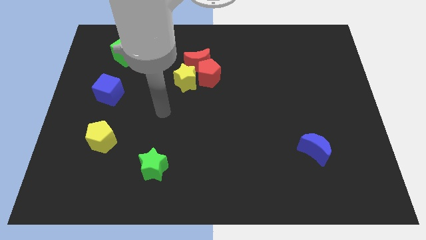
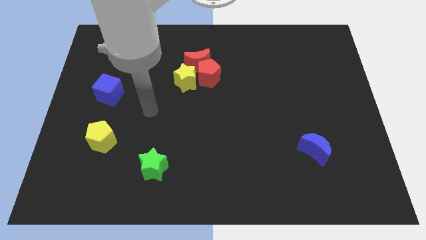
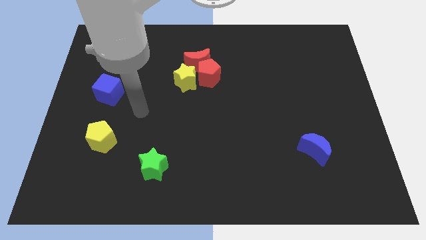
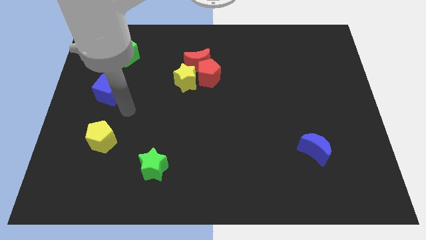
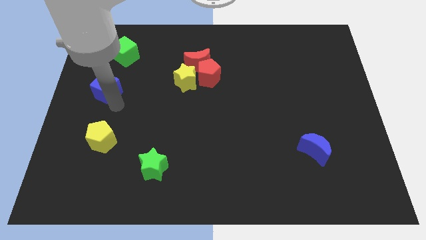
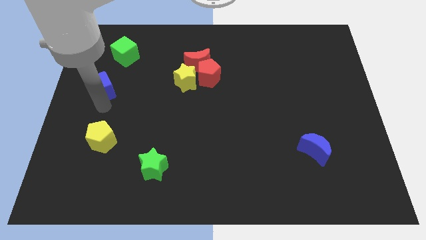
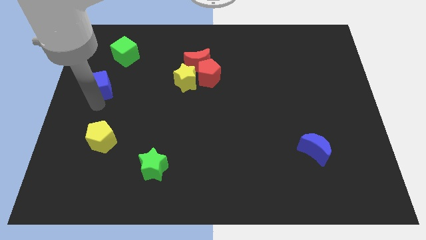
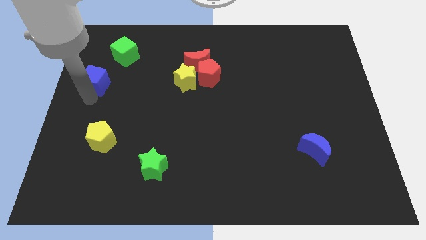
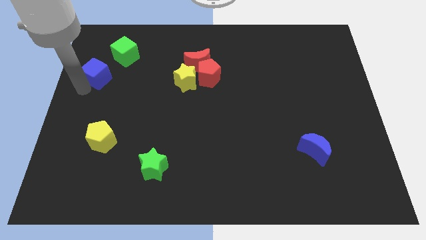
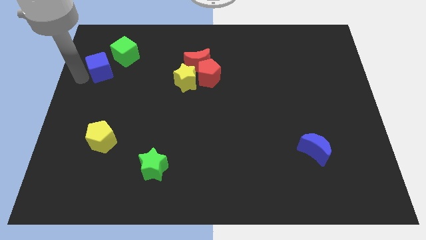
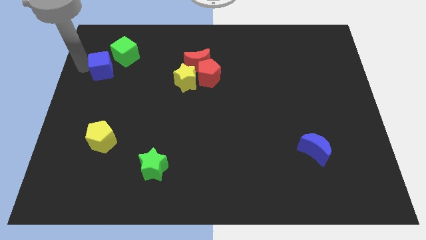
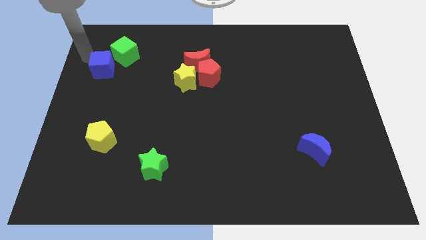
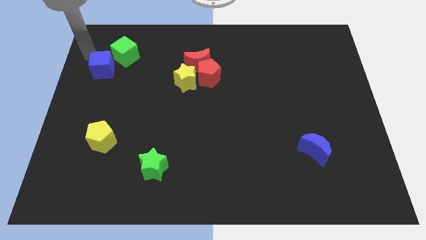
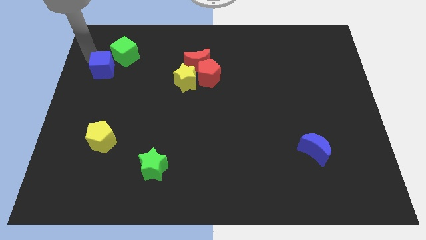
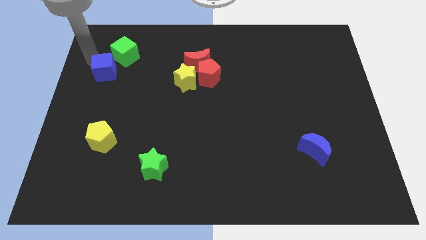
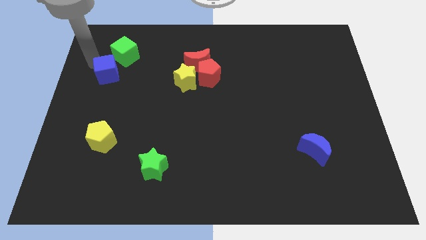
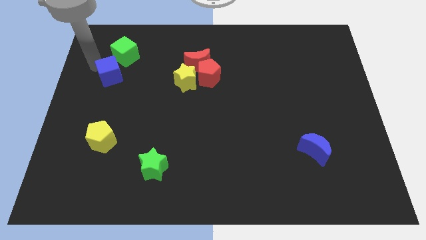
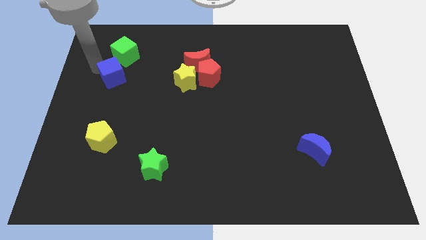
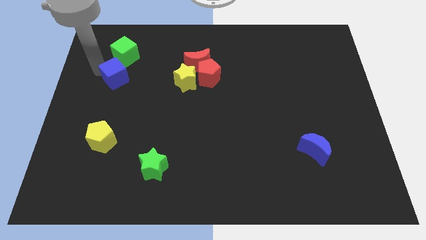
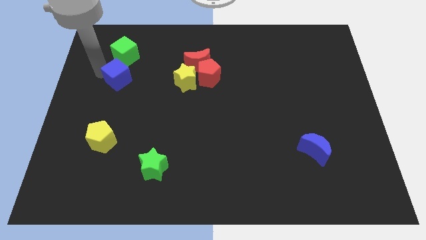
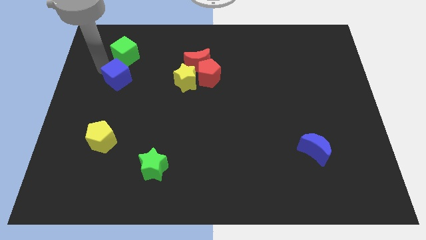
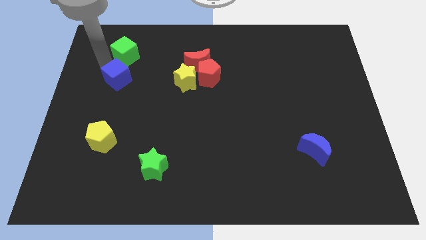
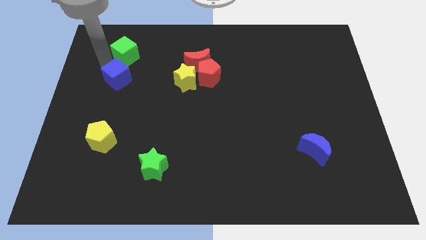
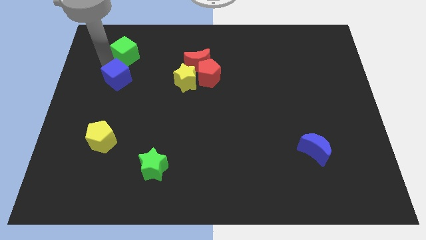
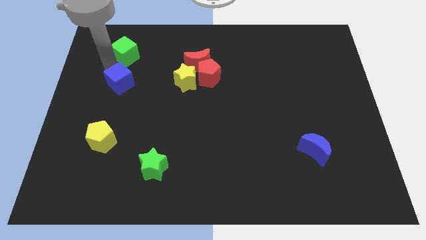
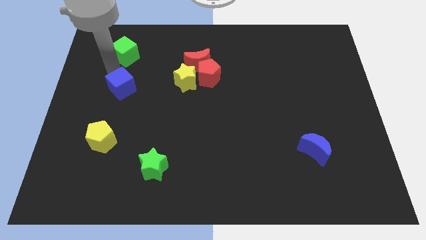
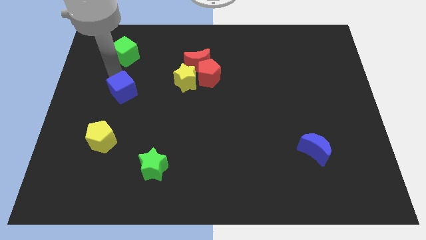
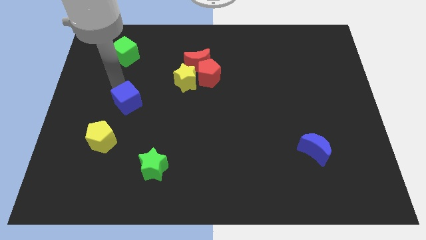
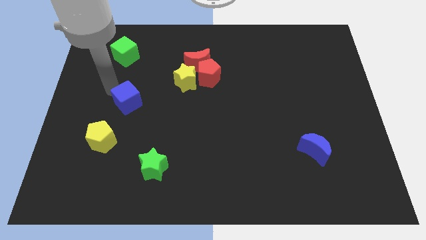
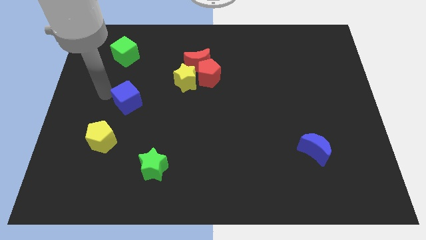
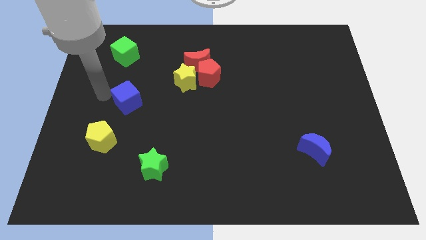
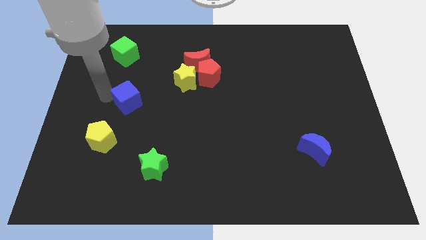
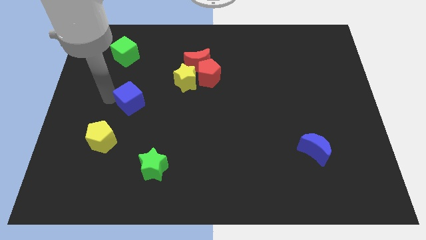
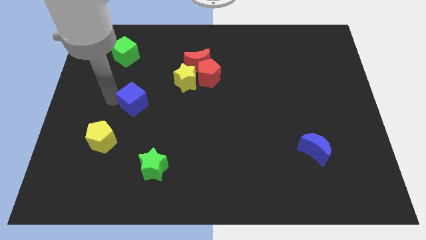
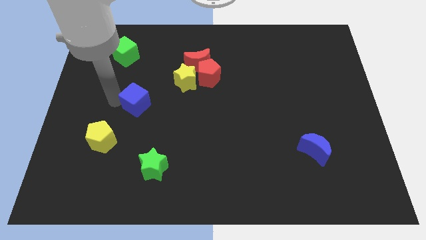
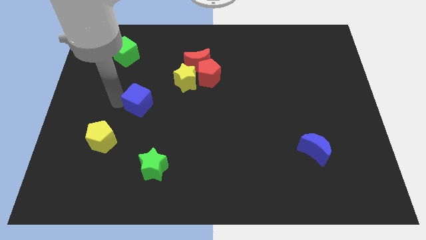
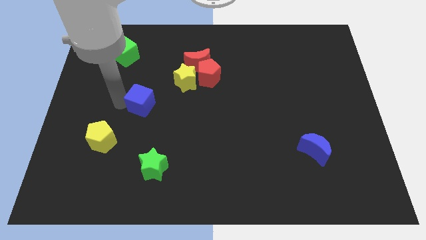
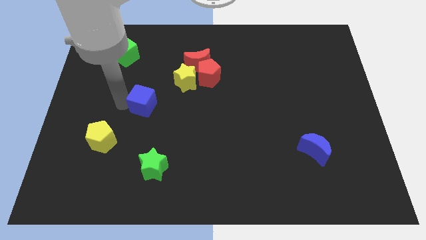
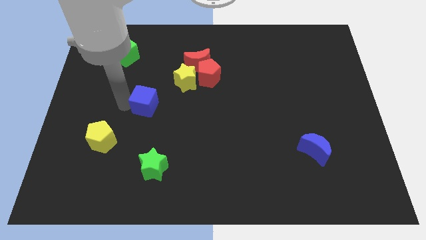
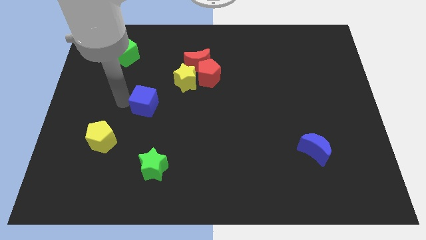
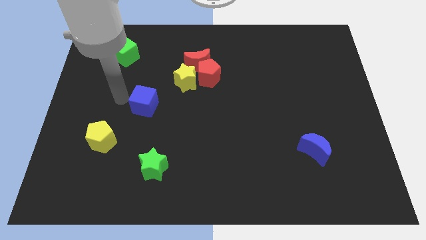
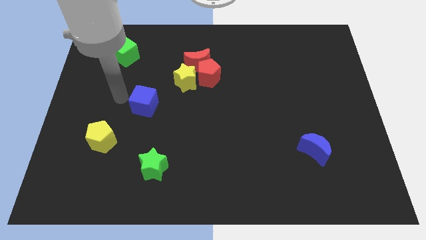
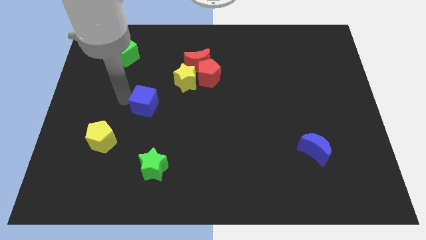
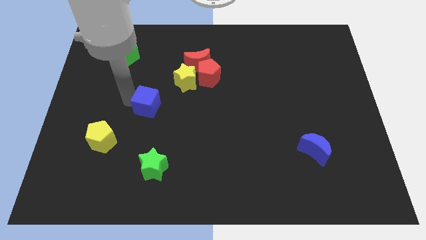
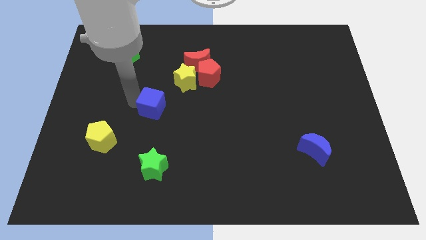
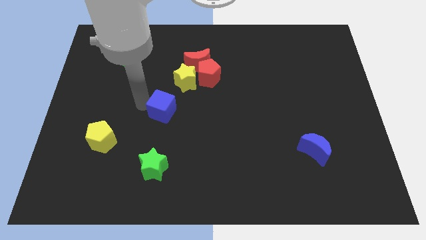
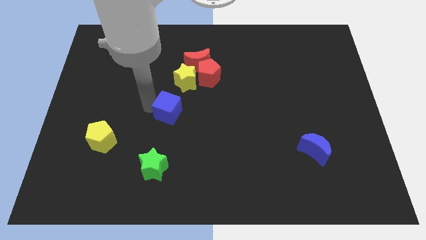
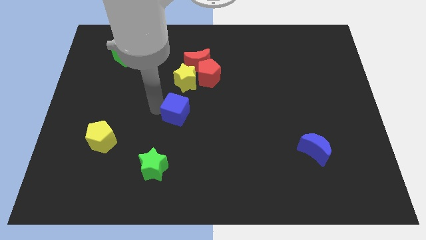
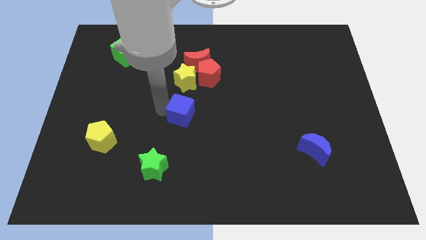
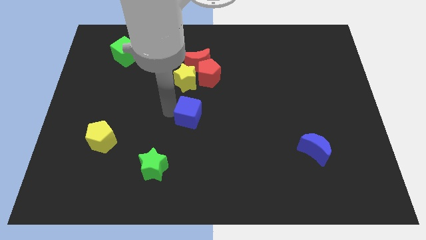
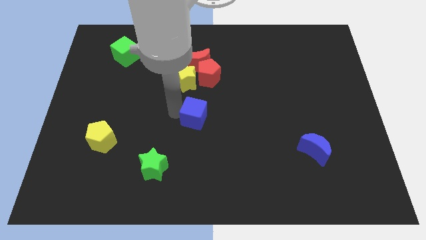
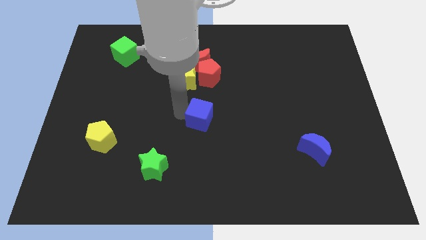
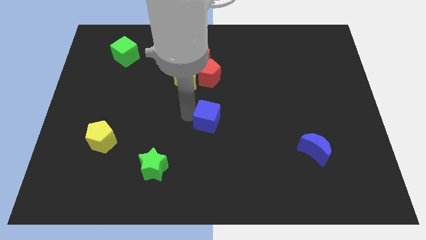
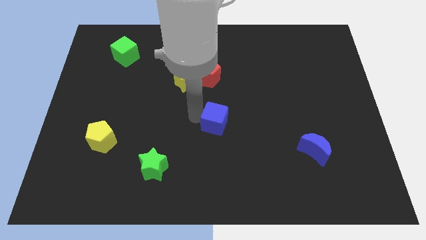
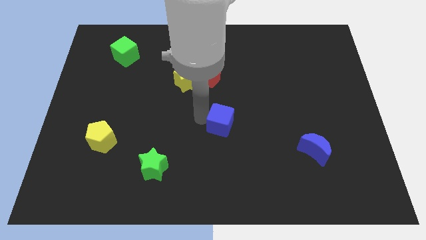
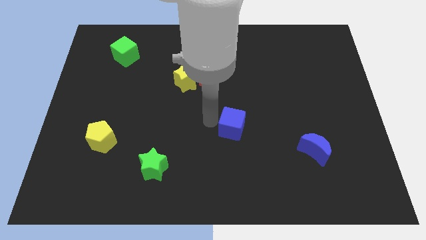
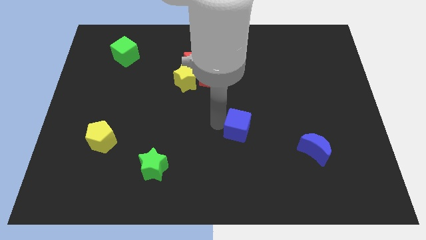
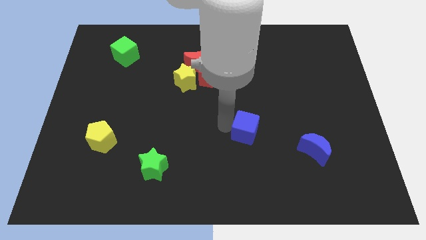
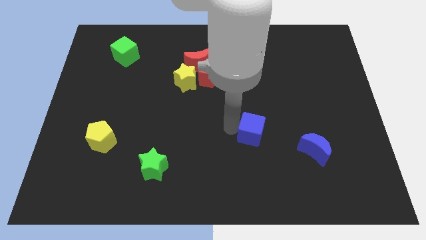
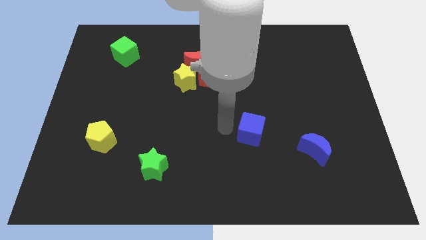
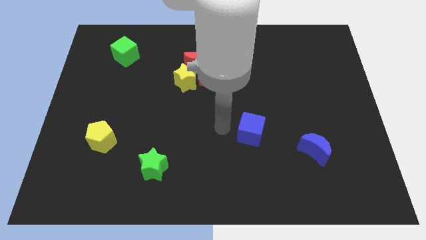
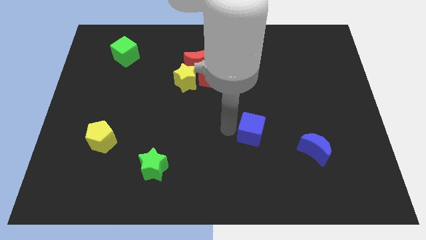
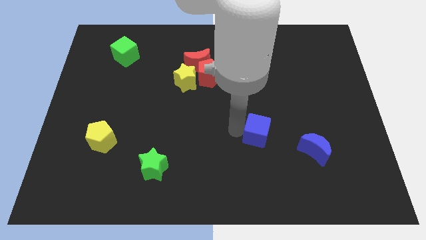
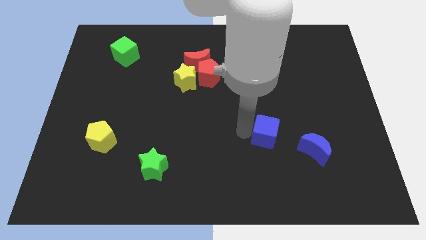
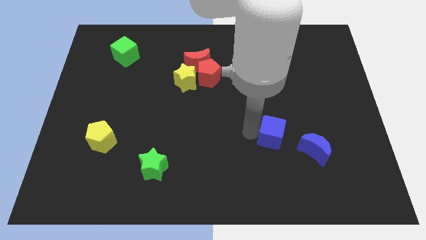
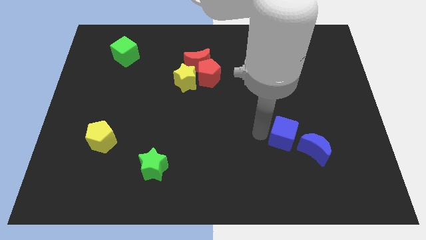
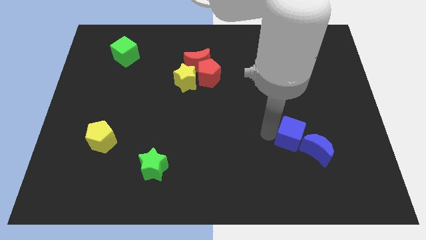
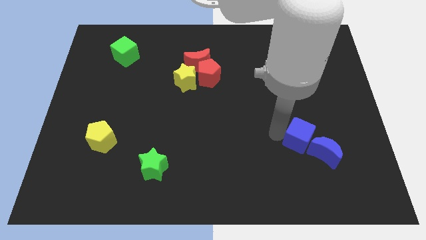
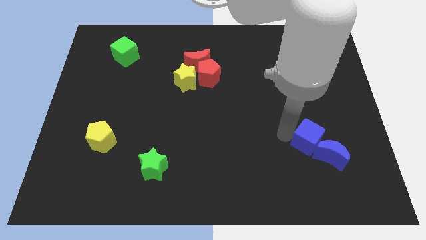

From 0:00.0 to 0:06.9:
slide the blue cube next to the blue moon

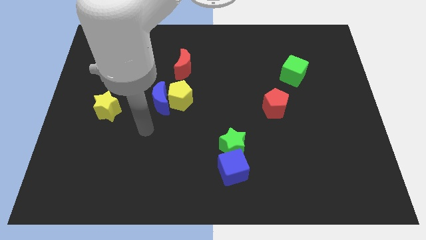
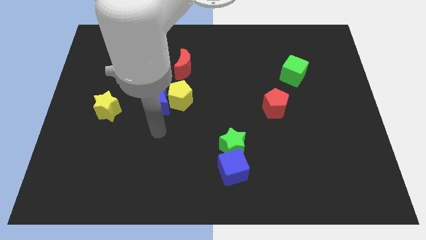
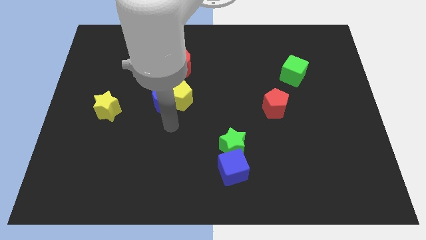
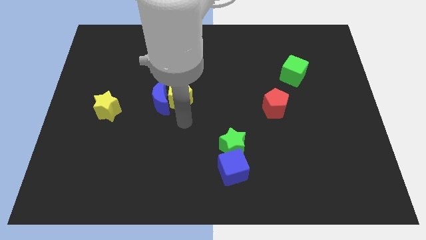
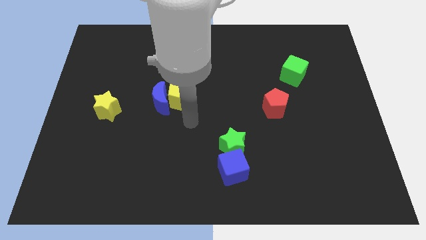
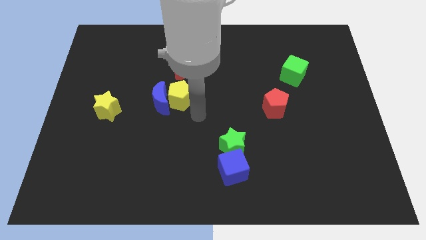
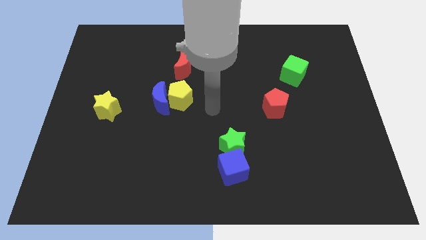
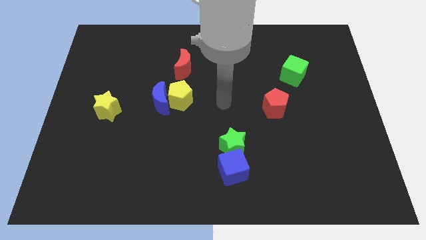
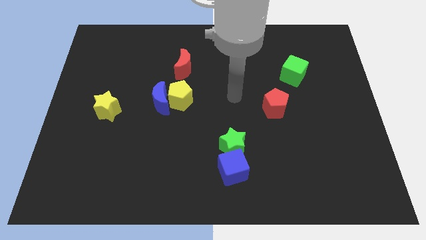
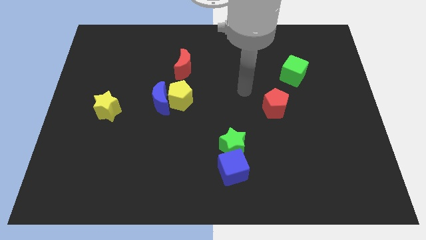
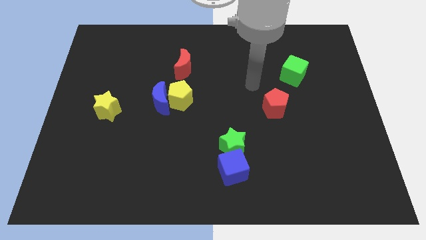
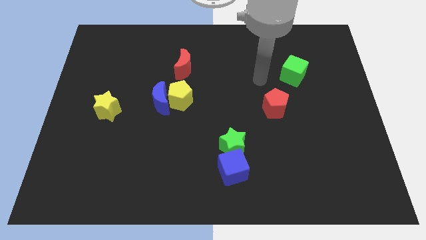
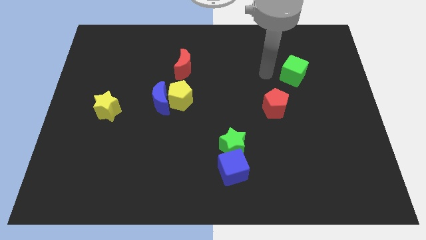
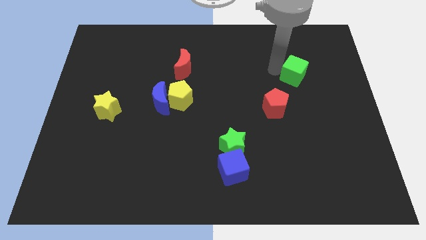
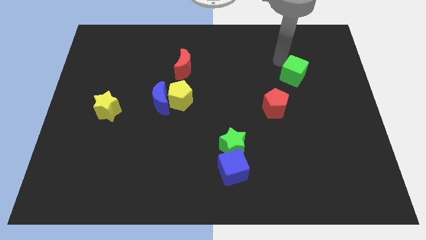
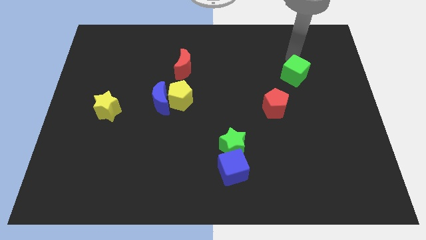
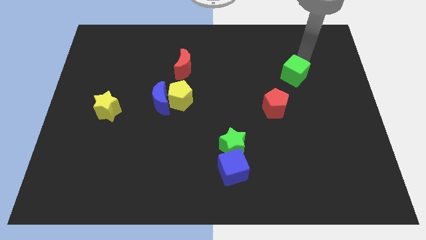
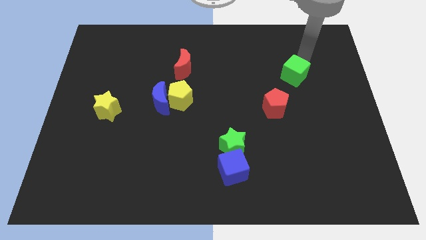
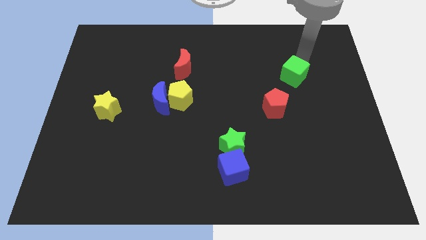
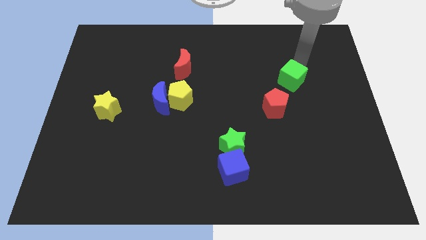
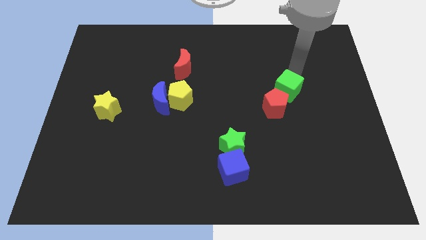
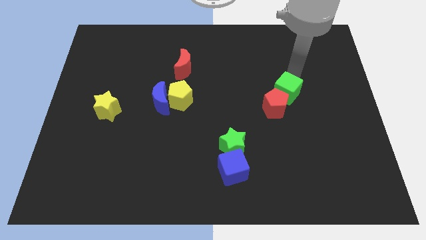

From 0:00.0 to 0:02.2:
slide the green cube close to the red pentagon
